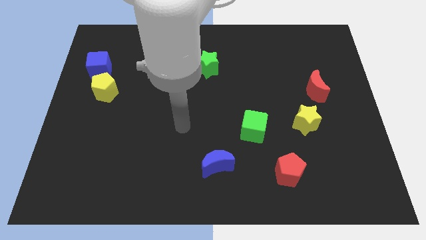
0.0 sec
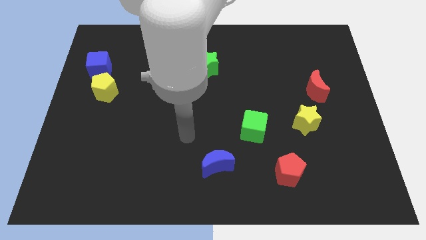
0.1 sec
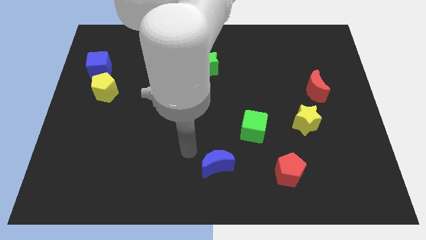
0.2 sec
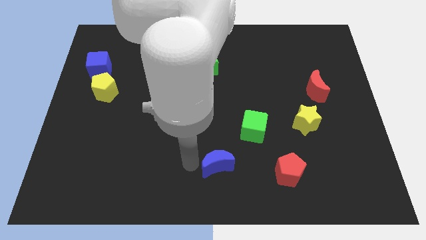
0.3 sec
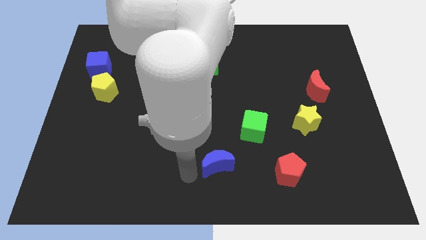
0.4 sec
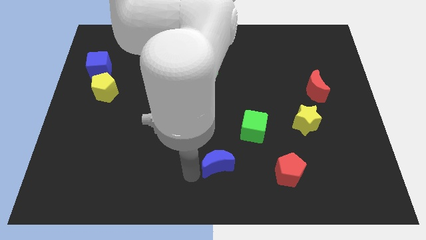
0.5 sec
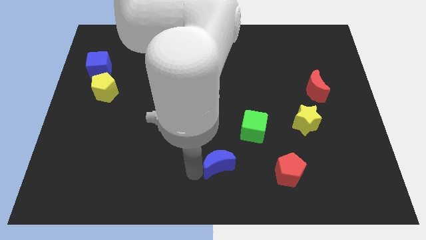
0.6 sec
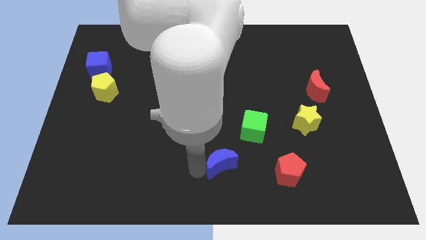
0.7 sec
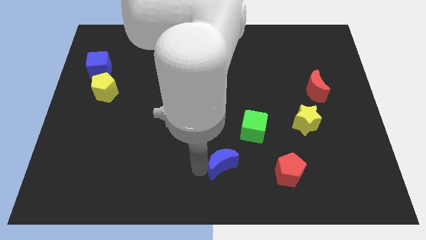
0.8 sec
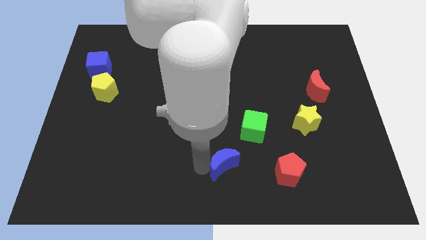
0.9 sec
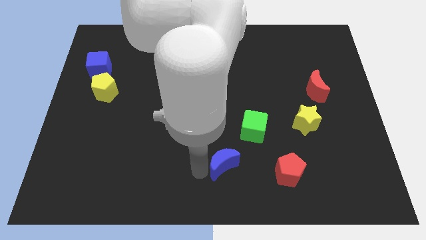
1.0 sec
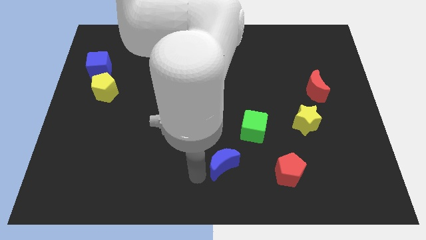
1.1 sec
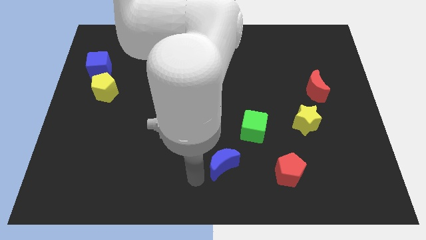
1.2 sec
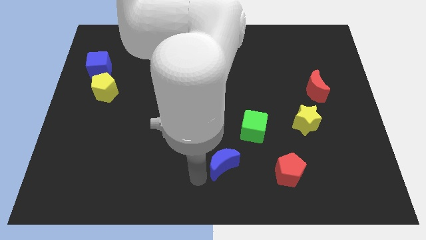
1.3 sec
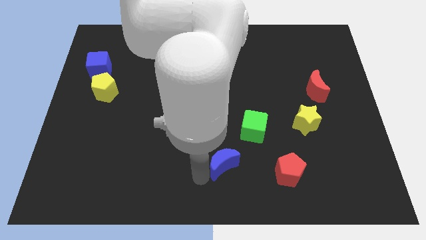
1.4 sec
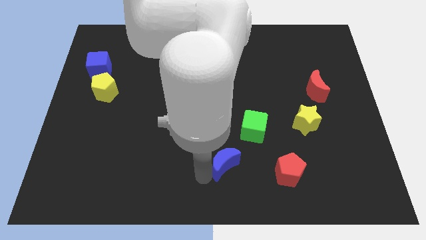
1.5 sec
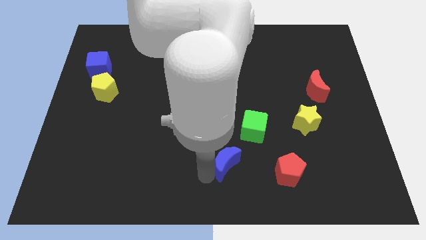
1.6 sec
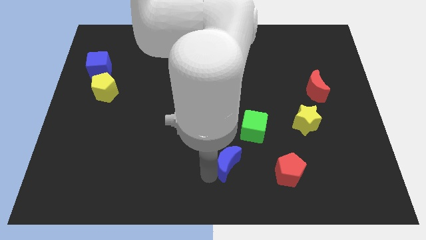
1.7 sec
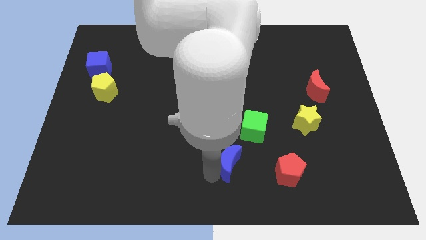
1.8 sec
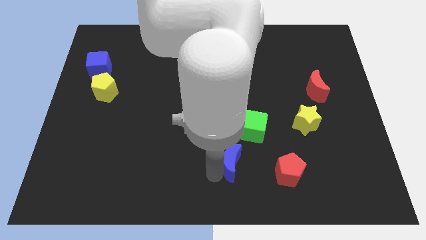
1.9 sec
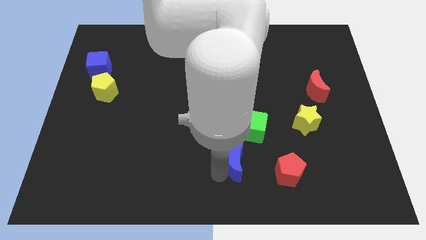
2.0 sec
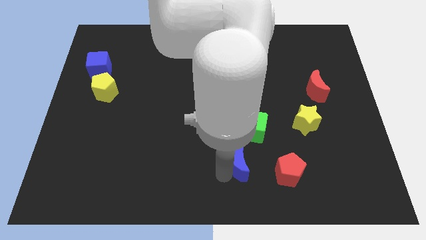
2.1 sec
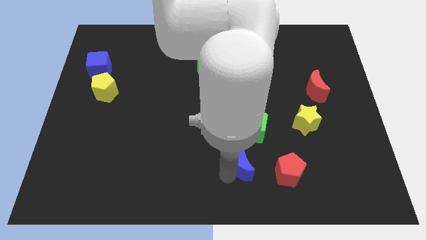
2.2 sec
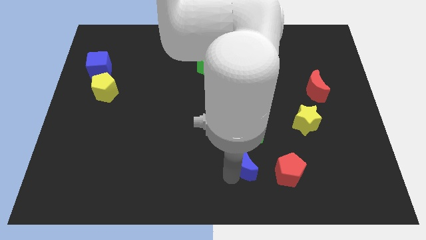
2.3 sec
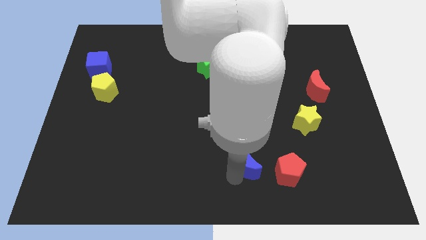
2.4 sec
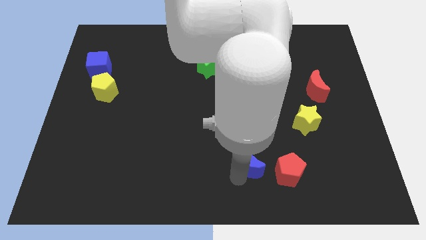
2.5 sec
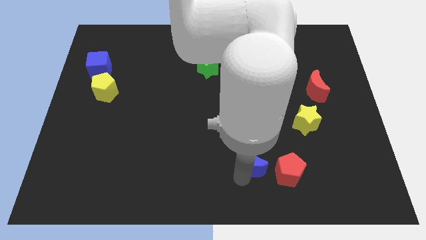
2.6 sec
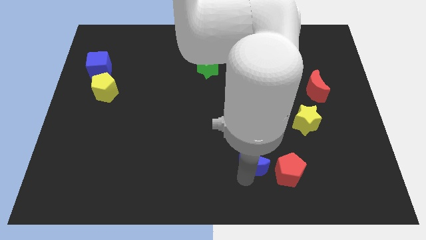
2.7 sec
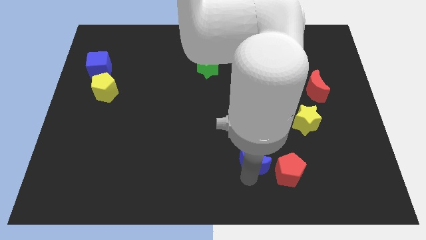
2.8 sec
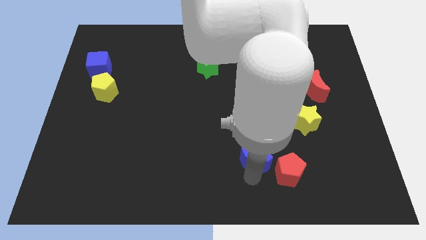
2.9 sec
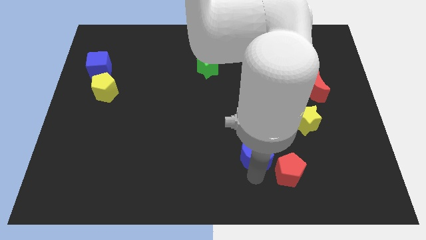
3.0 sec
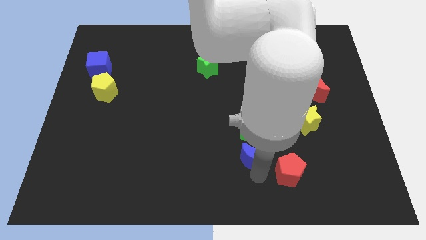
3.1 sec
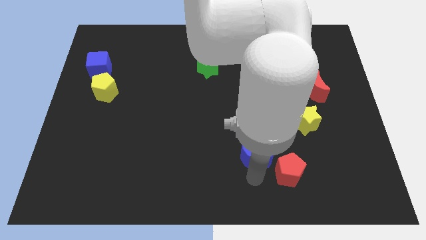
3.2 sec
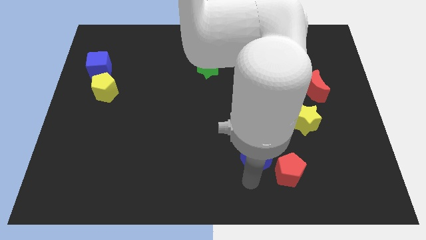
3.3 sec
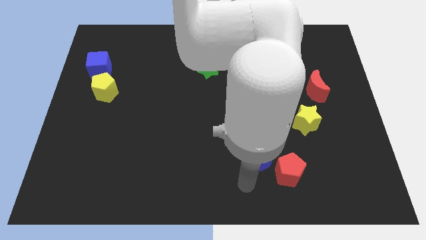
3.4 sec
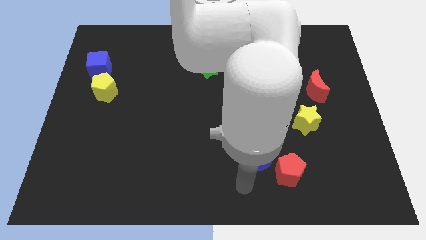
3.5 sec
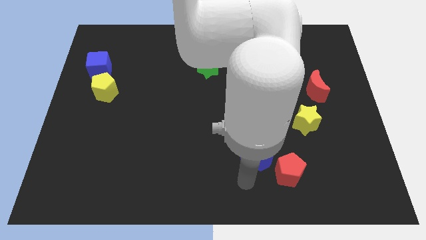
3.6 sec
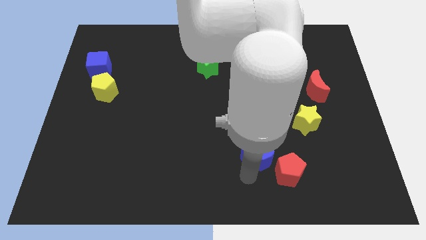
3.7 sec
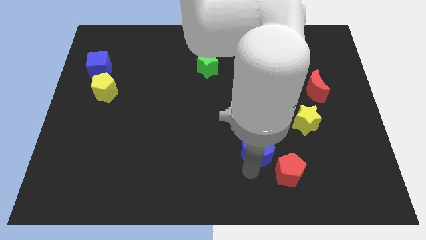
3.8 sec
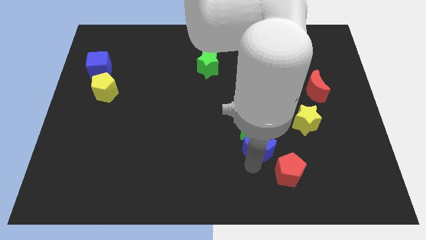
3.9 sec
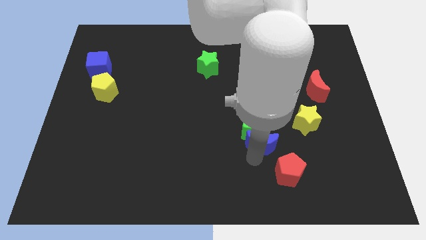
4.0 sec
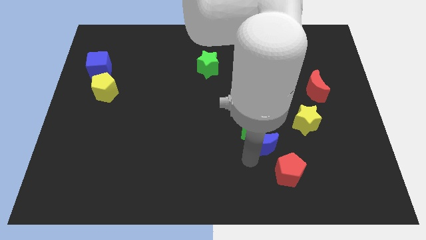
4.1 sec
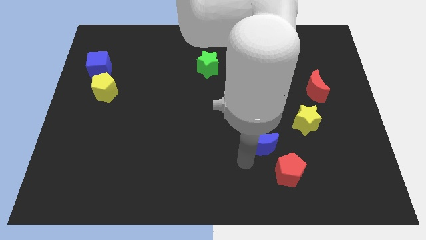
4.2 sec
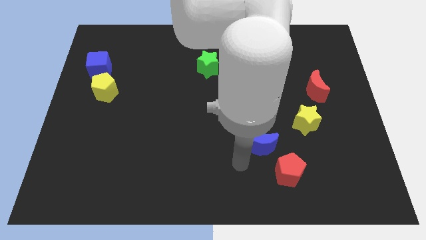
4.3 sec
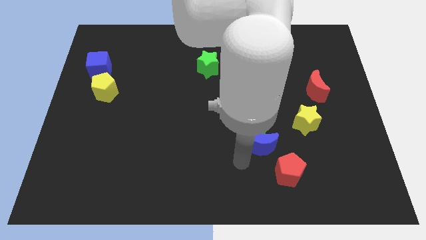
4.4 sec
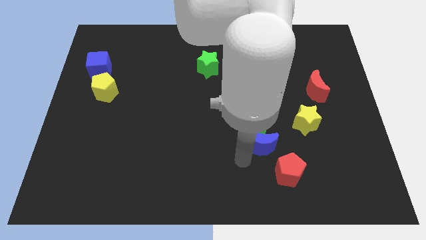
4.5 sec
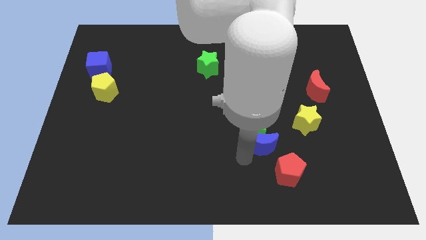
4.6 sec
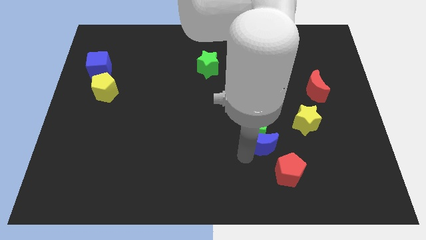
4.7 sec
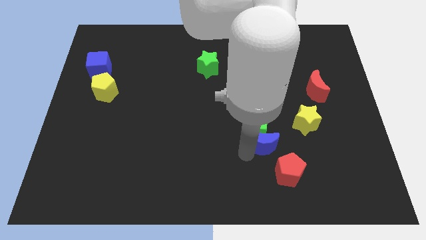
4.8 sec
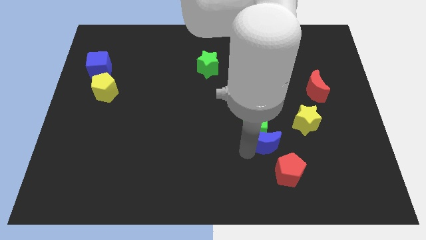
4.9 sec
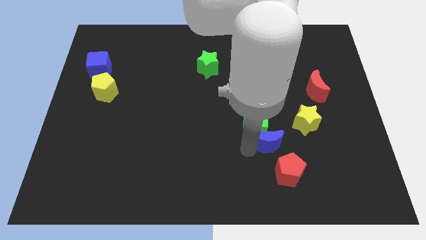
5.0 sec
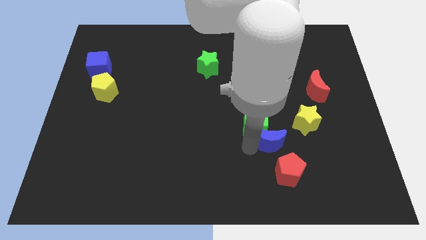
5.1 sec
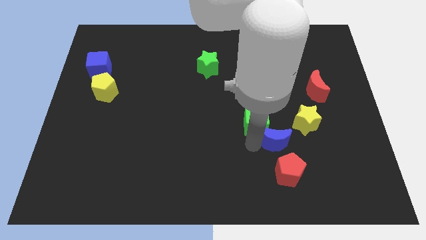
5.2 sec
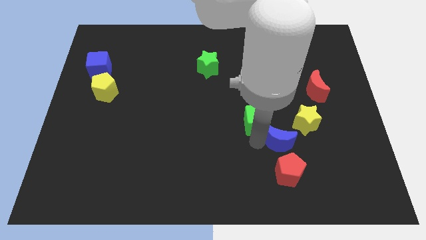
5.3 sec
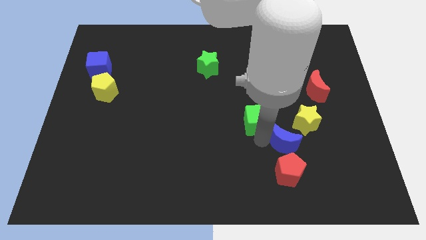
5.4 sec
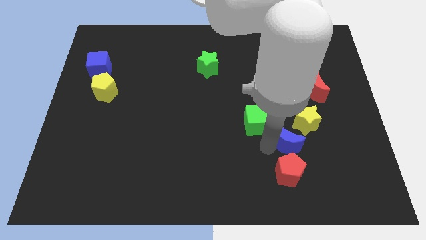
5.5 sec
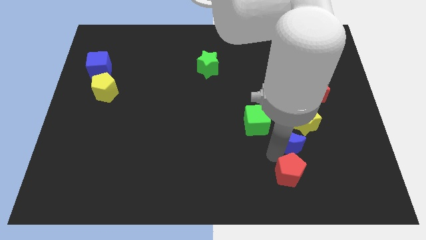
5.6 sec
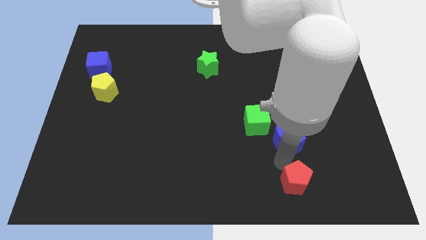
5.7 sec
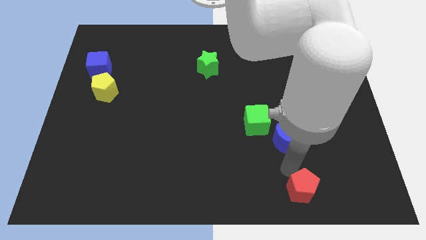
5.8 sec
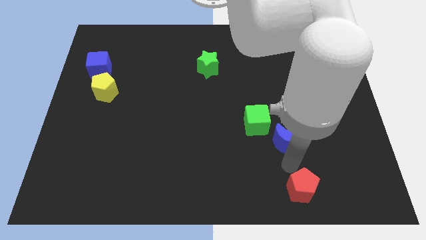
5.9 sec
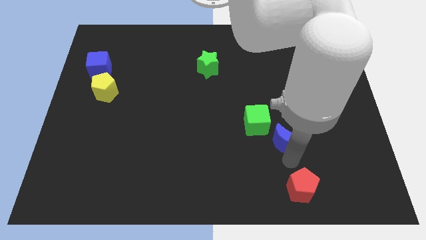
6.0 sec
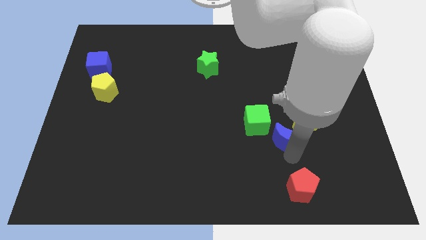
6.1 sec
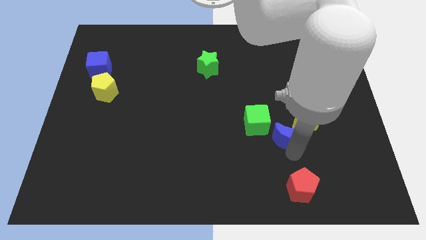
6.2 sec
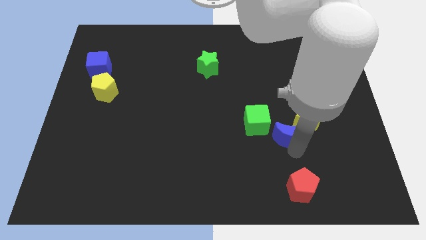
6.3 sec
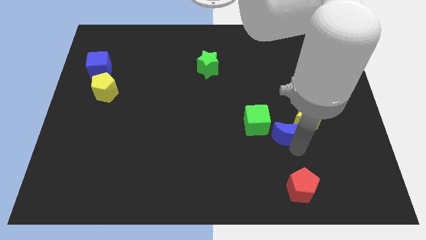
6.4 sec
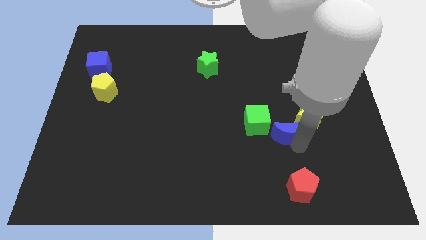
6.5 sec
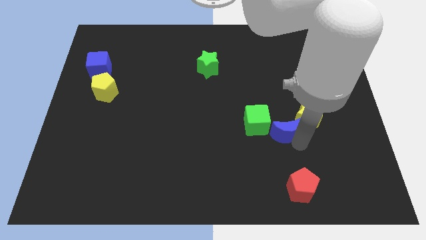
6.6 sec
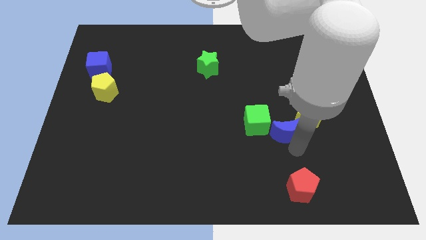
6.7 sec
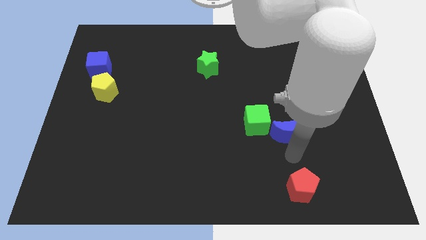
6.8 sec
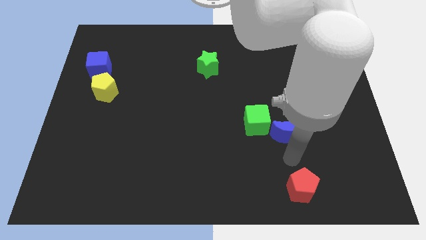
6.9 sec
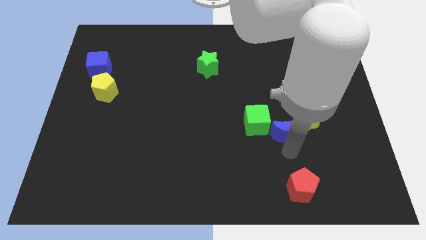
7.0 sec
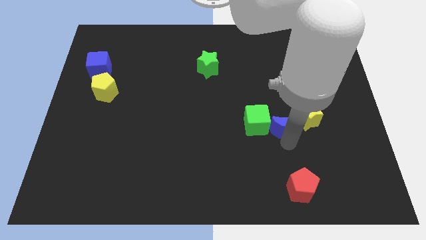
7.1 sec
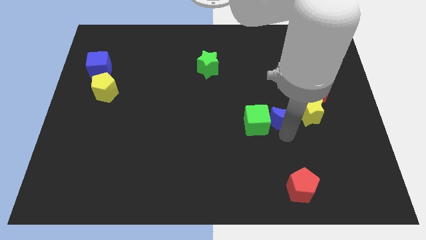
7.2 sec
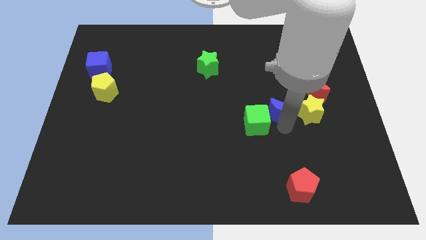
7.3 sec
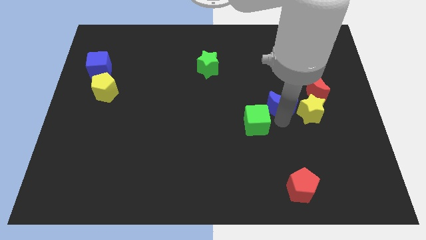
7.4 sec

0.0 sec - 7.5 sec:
put the blue moon to the top left of the yellow star
